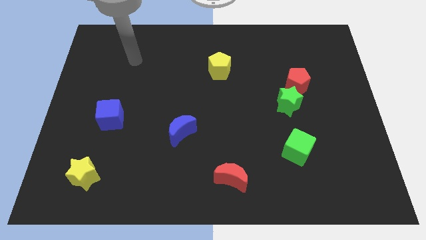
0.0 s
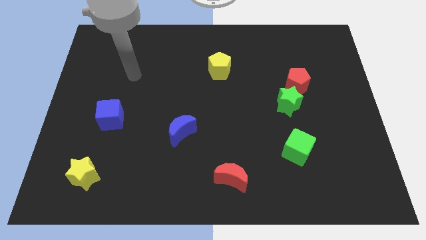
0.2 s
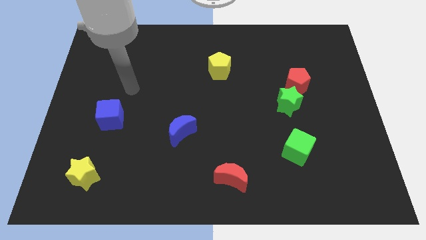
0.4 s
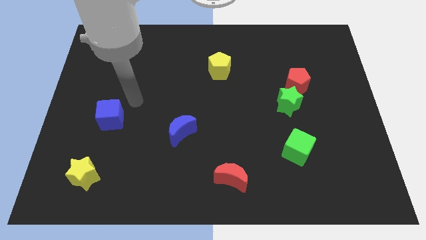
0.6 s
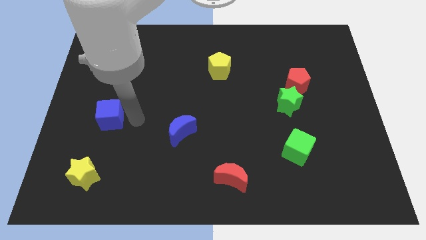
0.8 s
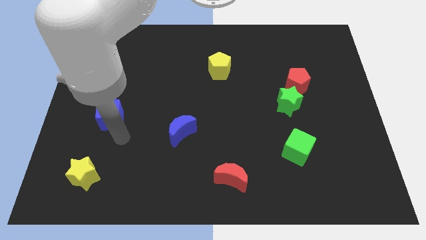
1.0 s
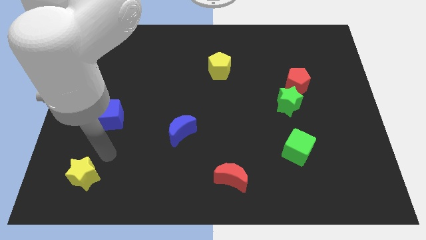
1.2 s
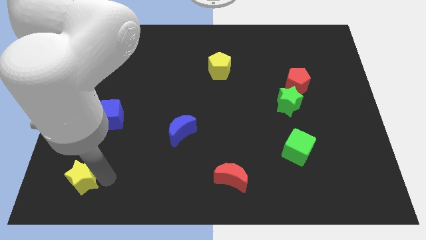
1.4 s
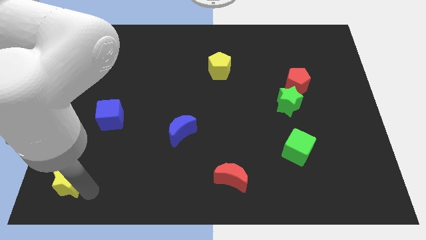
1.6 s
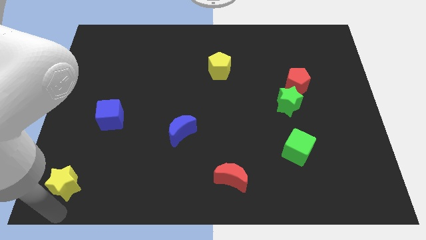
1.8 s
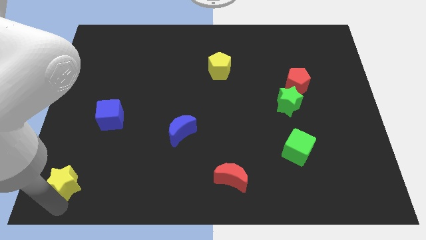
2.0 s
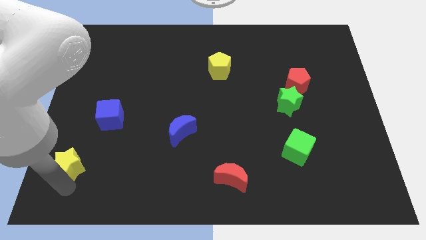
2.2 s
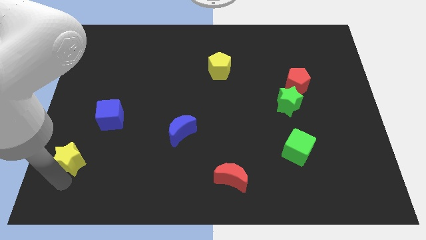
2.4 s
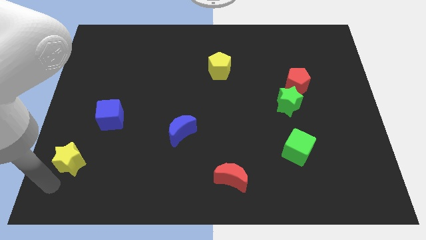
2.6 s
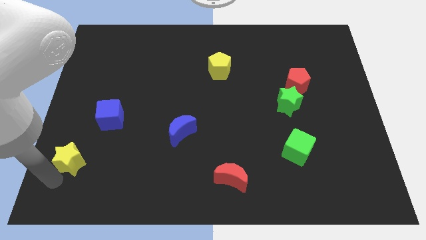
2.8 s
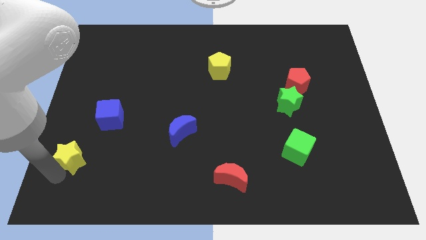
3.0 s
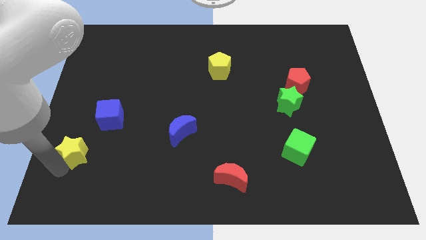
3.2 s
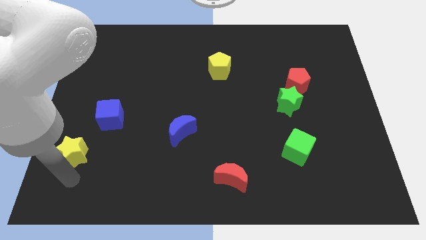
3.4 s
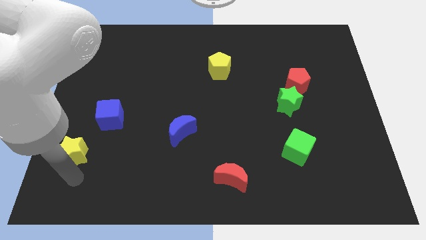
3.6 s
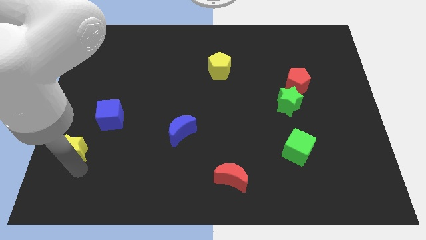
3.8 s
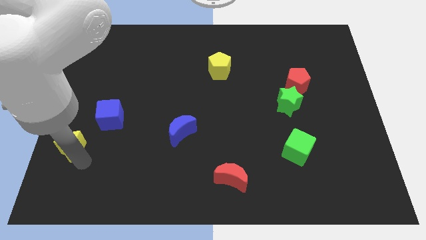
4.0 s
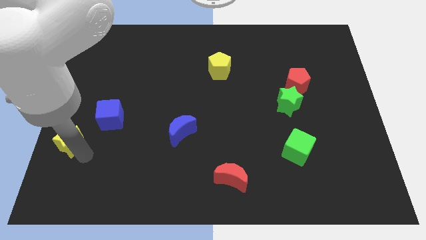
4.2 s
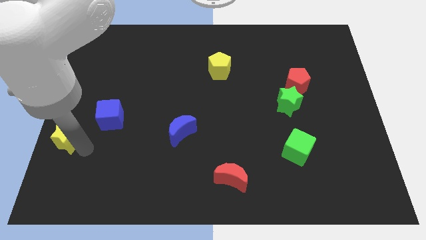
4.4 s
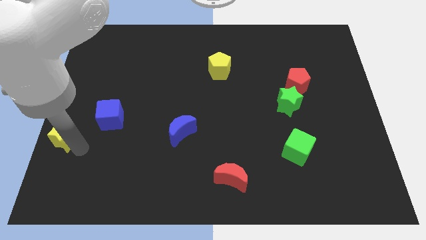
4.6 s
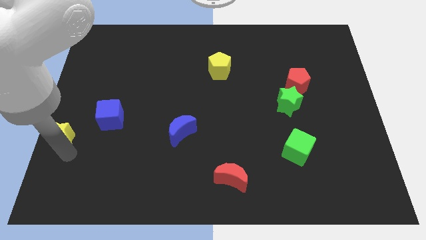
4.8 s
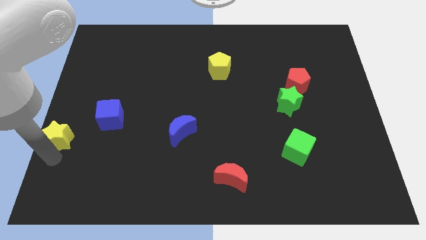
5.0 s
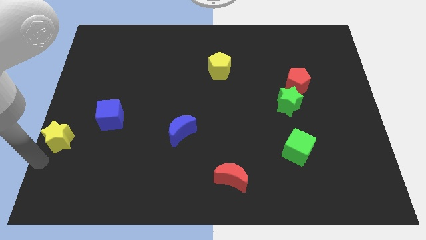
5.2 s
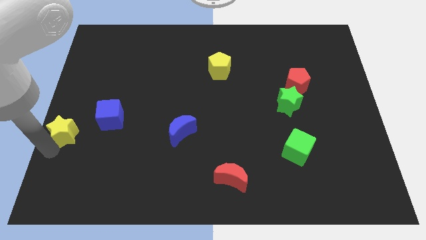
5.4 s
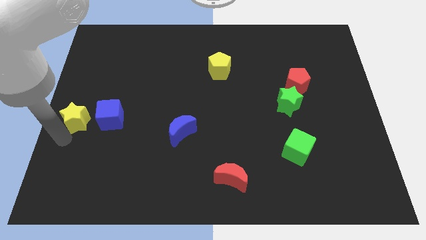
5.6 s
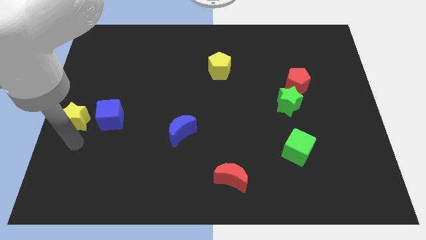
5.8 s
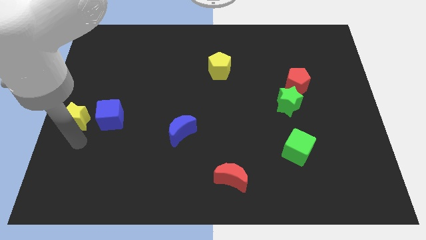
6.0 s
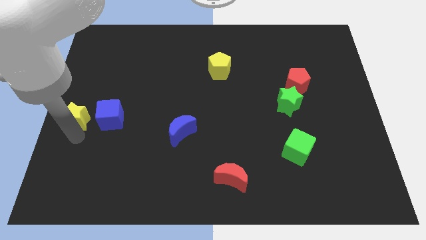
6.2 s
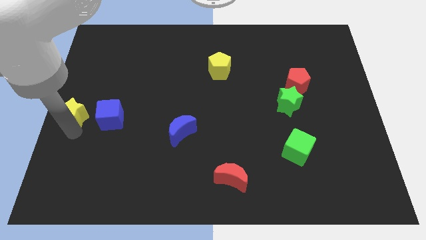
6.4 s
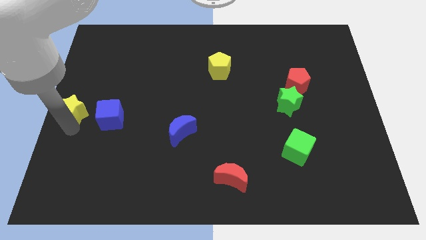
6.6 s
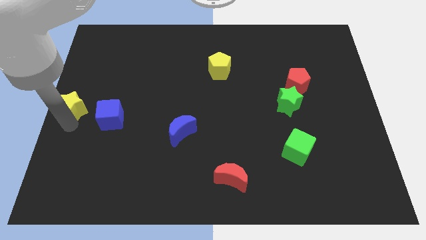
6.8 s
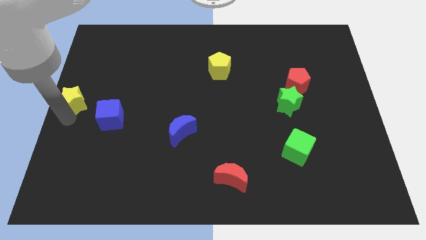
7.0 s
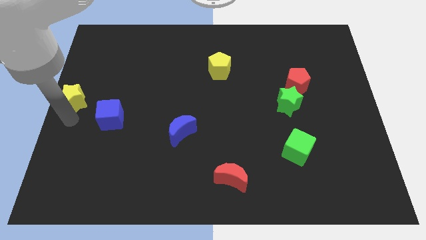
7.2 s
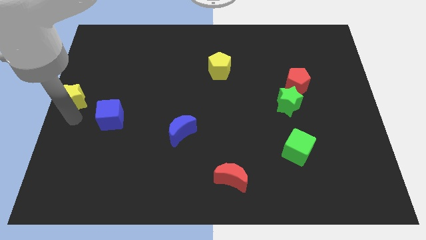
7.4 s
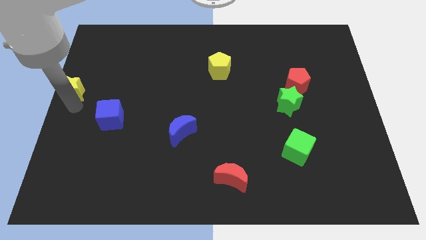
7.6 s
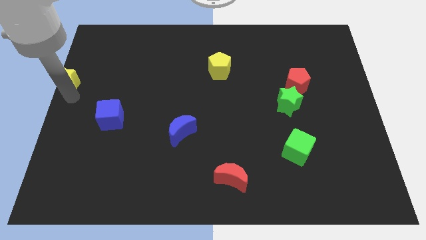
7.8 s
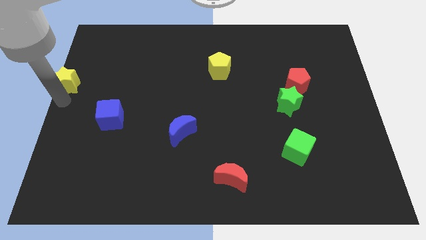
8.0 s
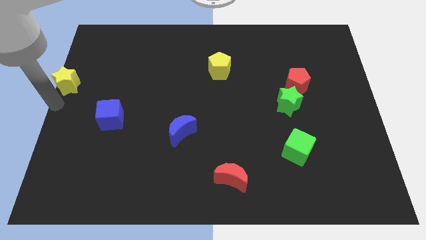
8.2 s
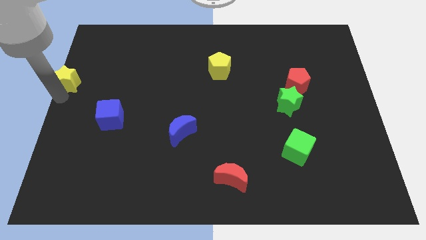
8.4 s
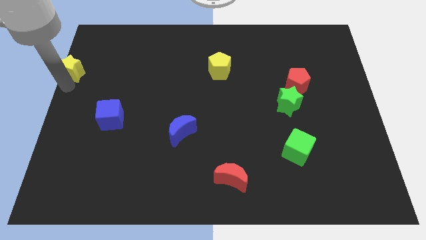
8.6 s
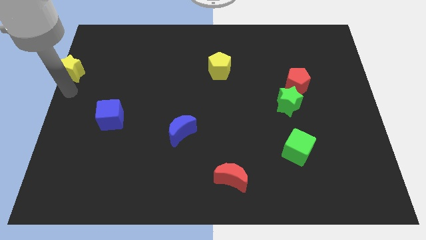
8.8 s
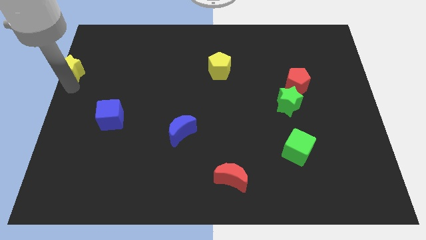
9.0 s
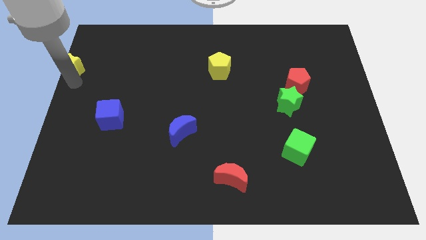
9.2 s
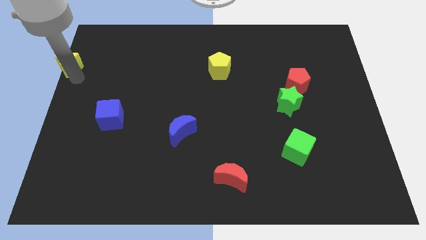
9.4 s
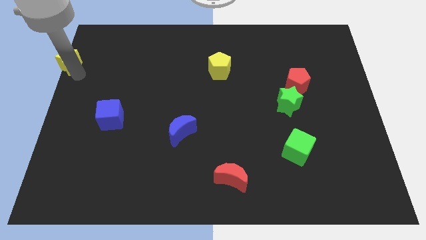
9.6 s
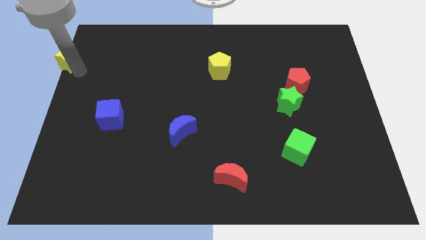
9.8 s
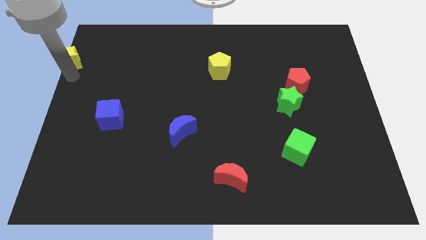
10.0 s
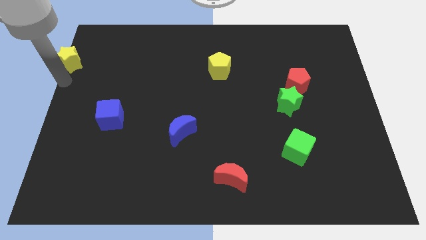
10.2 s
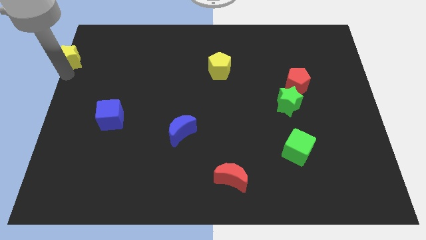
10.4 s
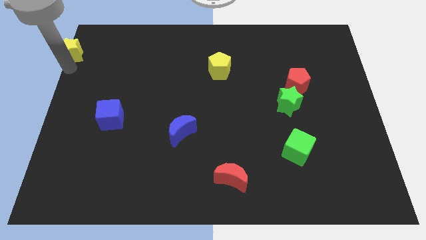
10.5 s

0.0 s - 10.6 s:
push the yellow star to the upper left corner
